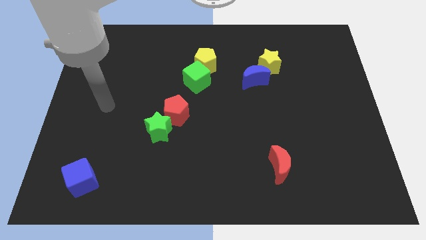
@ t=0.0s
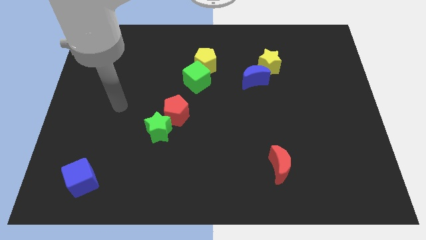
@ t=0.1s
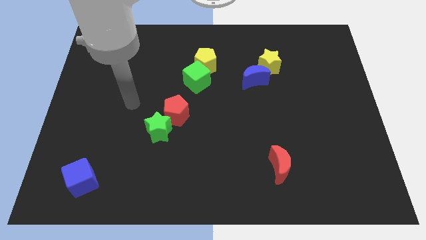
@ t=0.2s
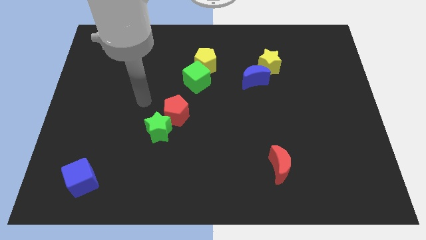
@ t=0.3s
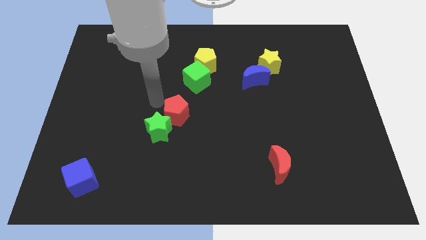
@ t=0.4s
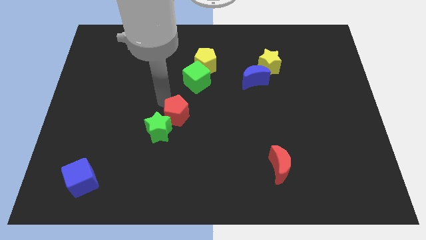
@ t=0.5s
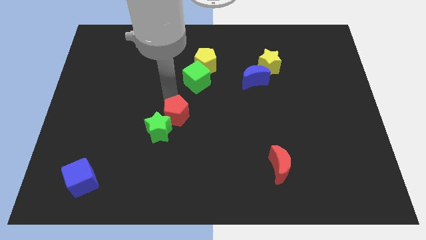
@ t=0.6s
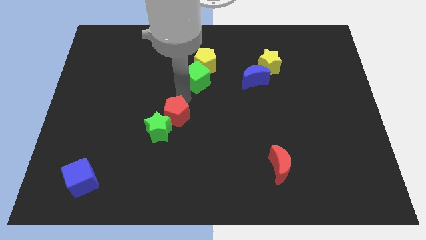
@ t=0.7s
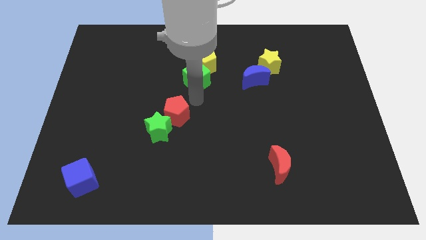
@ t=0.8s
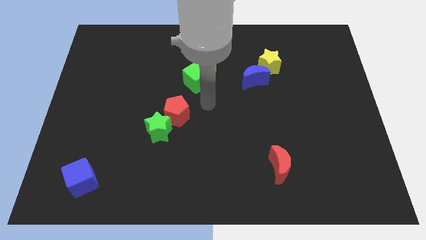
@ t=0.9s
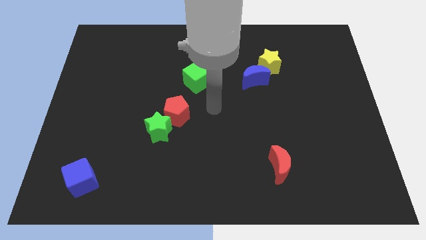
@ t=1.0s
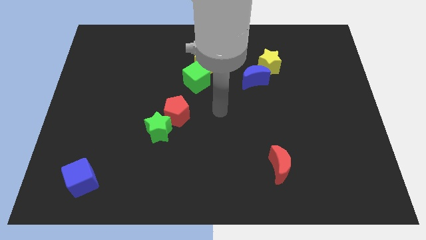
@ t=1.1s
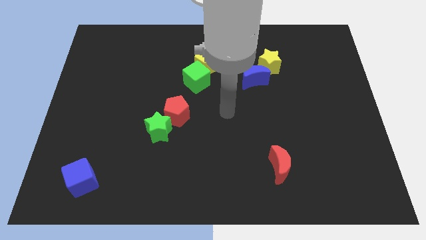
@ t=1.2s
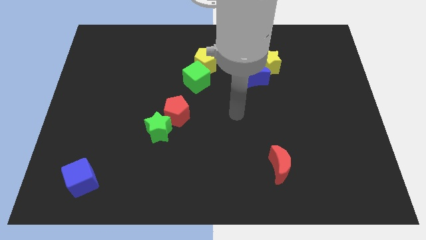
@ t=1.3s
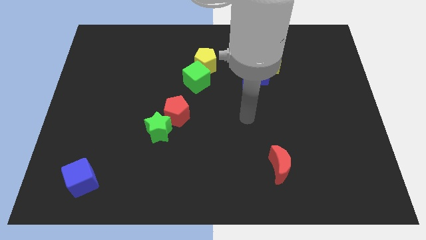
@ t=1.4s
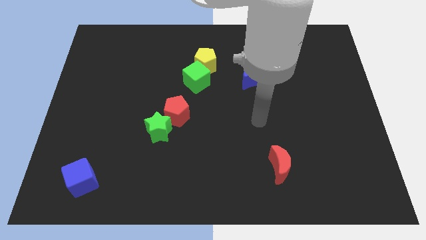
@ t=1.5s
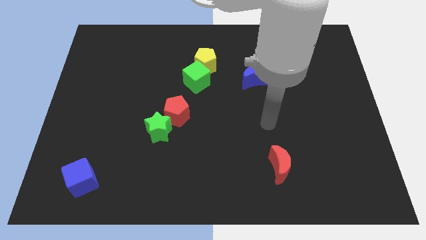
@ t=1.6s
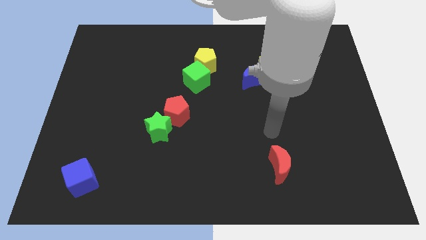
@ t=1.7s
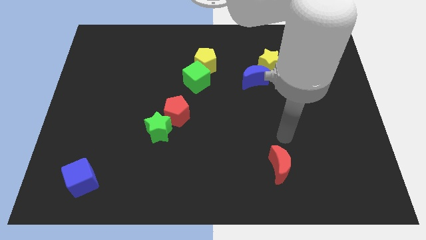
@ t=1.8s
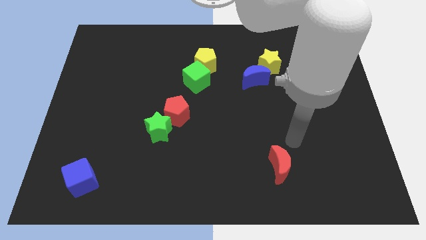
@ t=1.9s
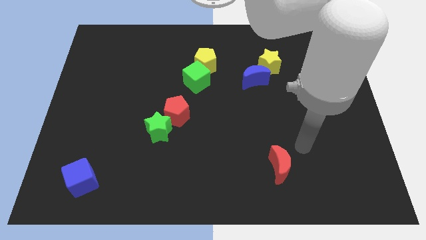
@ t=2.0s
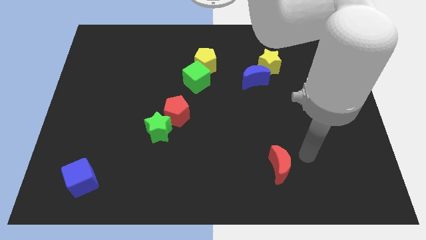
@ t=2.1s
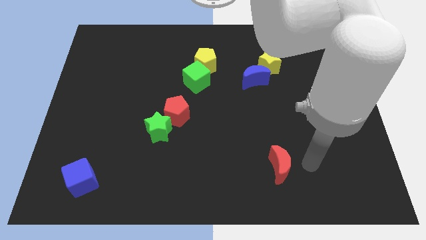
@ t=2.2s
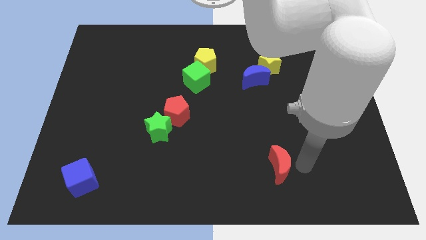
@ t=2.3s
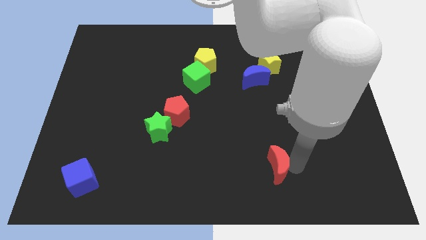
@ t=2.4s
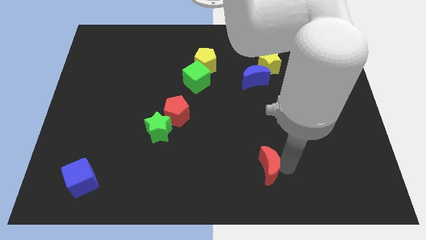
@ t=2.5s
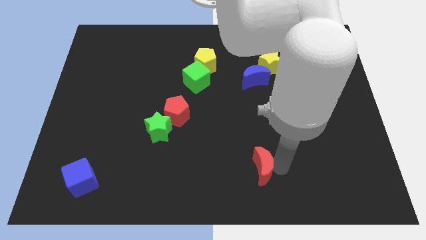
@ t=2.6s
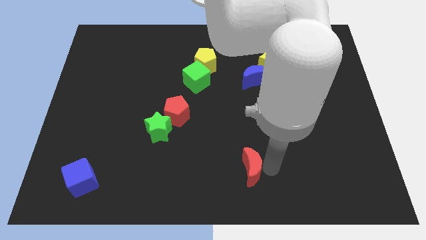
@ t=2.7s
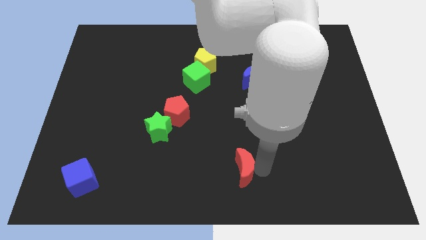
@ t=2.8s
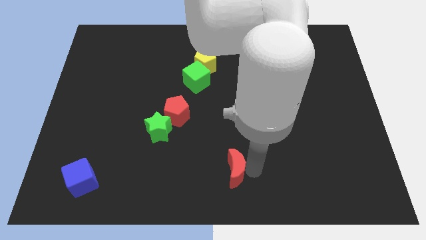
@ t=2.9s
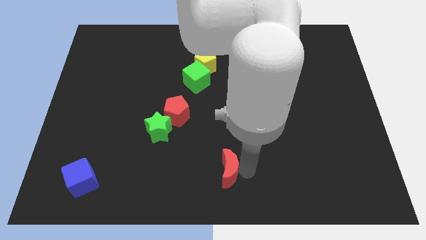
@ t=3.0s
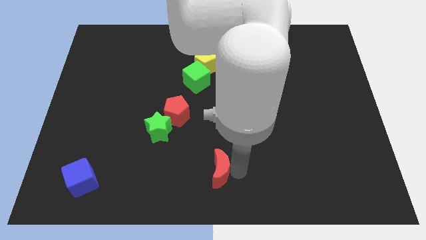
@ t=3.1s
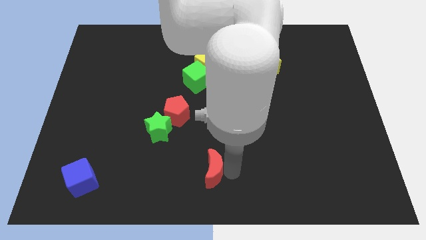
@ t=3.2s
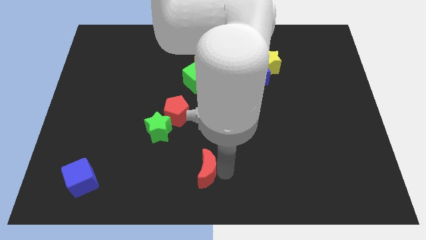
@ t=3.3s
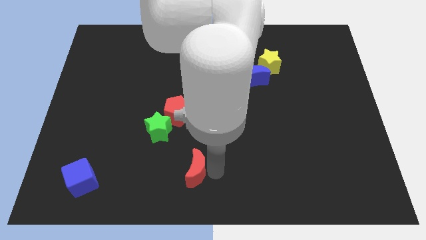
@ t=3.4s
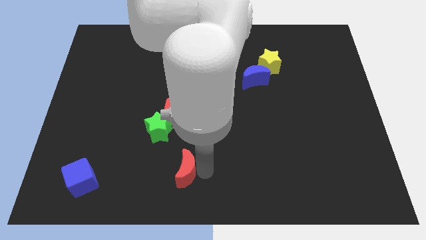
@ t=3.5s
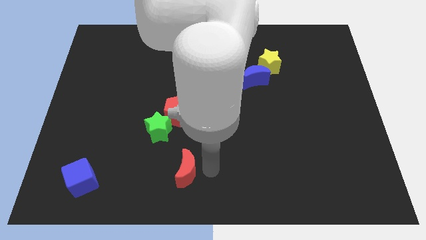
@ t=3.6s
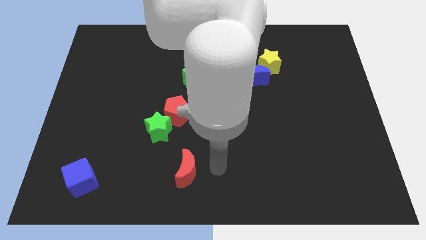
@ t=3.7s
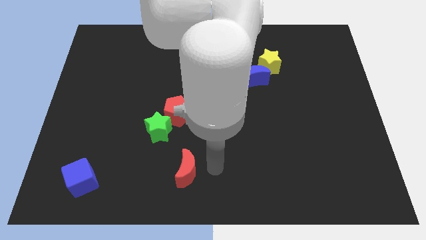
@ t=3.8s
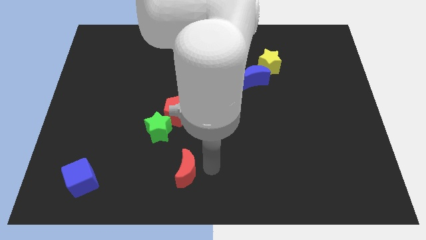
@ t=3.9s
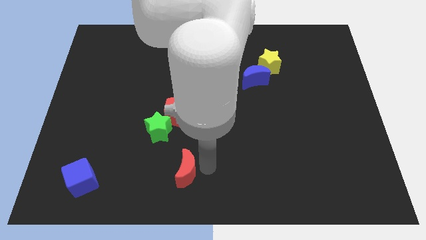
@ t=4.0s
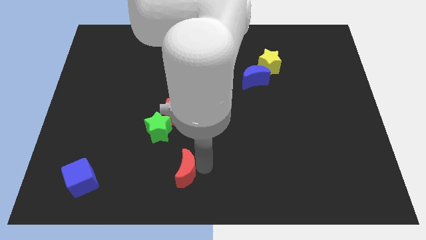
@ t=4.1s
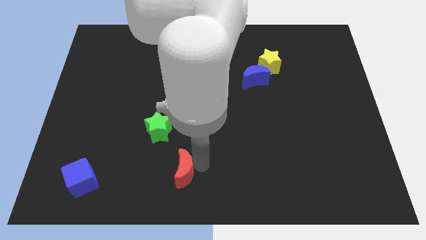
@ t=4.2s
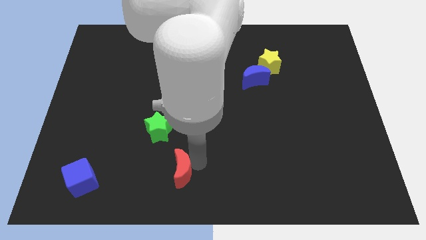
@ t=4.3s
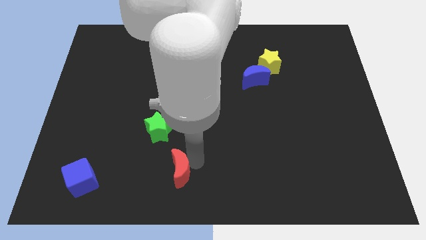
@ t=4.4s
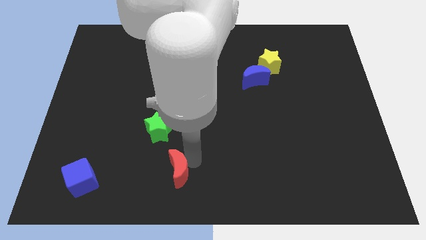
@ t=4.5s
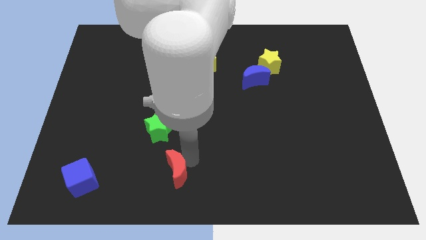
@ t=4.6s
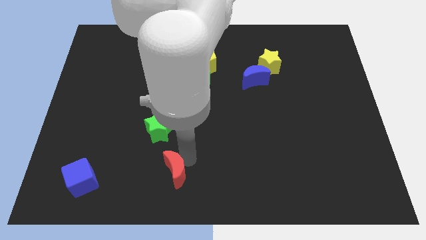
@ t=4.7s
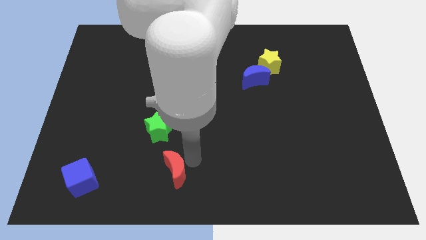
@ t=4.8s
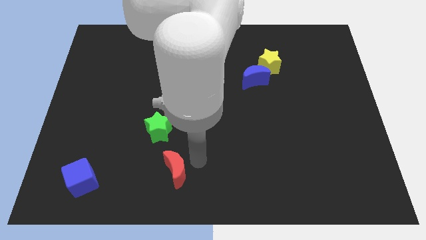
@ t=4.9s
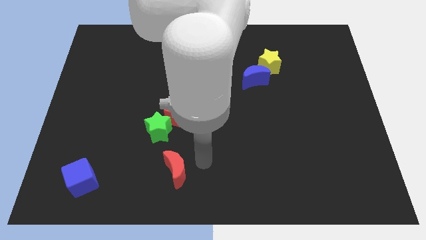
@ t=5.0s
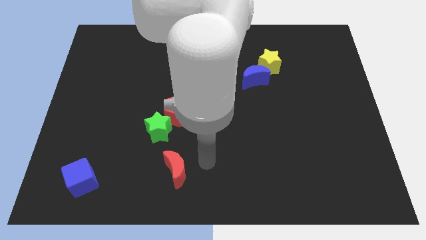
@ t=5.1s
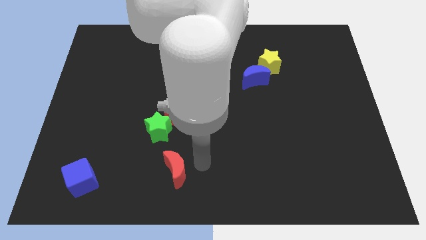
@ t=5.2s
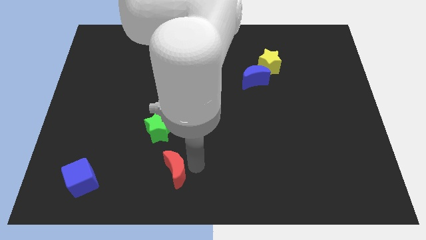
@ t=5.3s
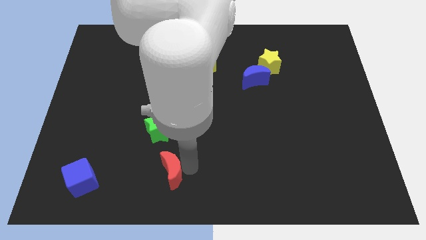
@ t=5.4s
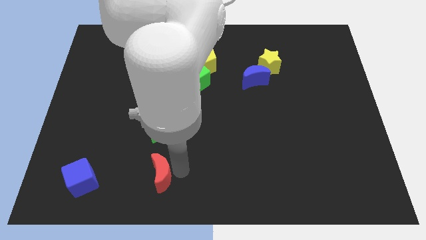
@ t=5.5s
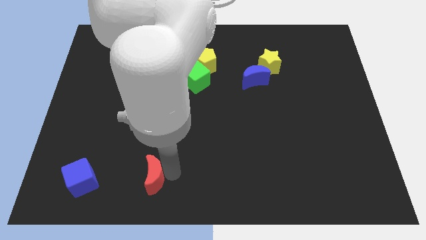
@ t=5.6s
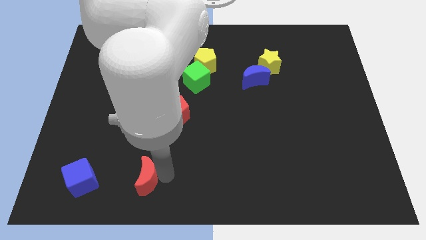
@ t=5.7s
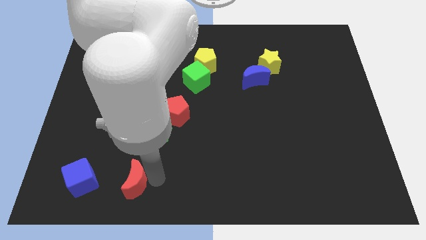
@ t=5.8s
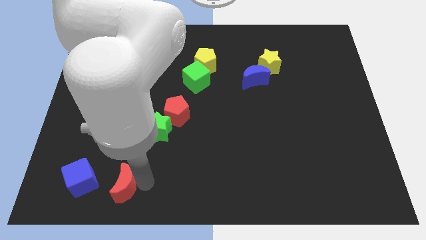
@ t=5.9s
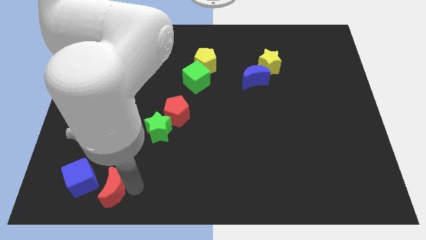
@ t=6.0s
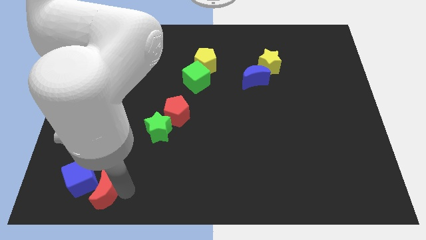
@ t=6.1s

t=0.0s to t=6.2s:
push the red moon close to the blue cube

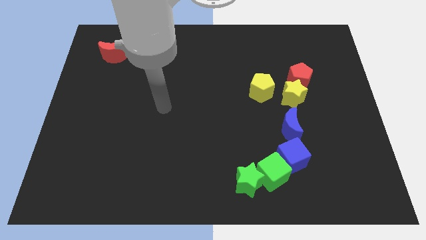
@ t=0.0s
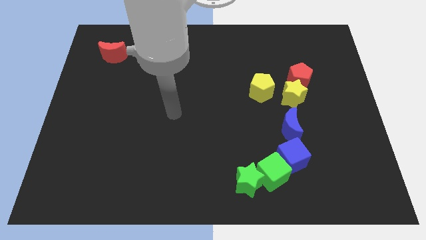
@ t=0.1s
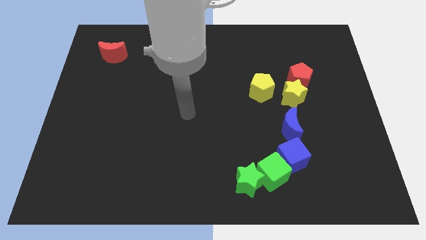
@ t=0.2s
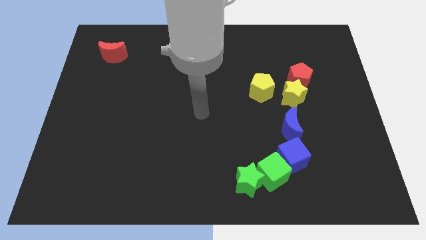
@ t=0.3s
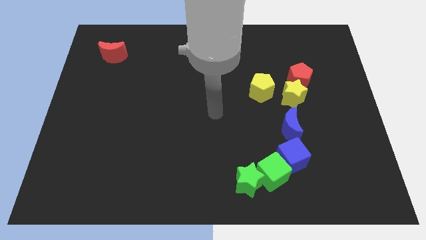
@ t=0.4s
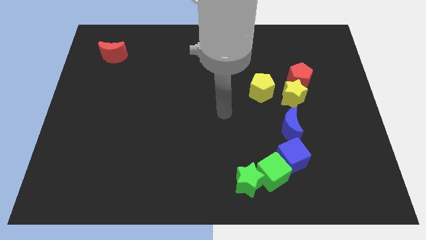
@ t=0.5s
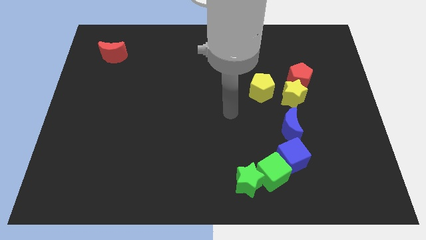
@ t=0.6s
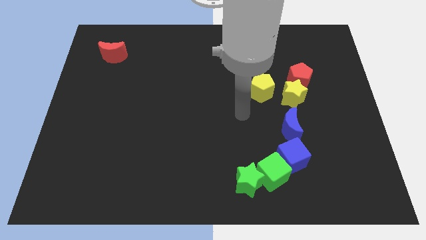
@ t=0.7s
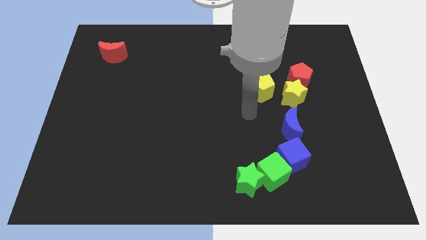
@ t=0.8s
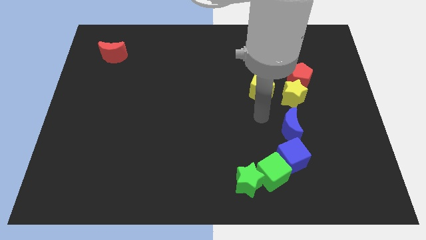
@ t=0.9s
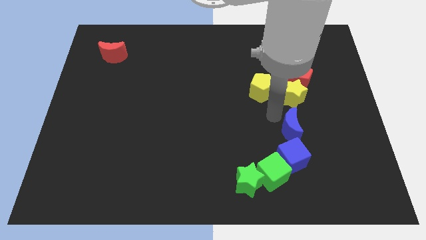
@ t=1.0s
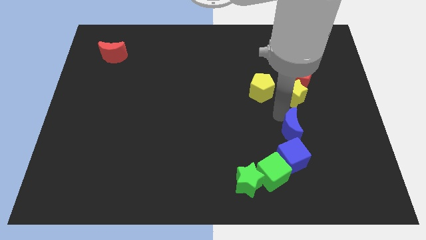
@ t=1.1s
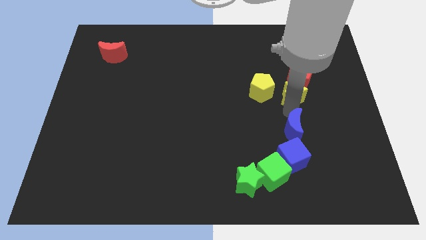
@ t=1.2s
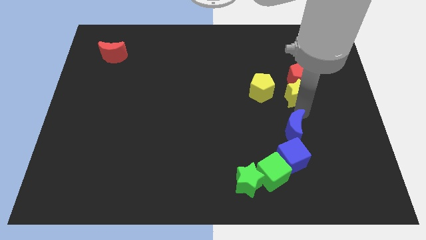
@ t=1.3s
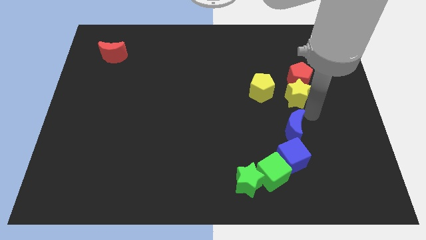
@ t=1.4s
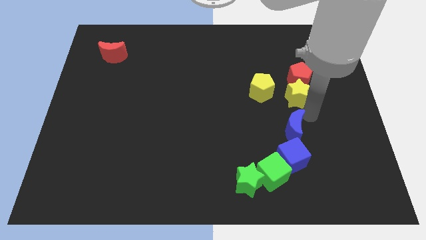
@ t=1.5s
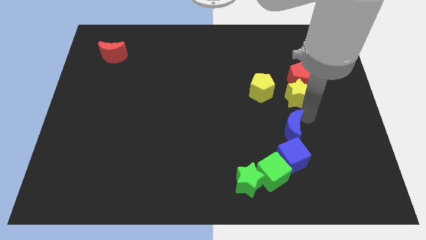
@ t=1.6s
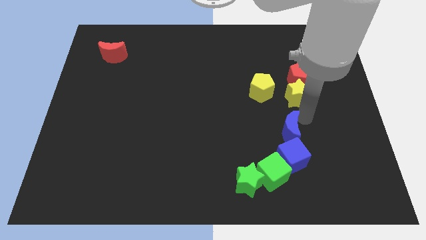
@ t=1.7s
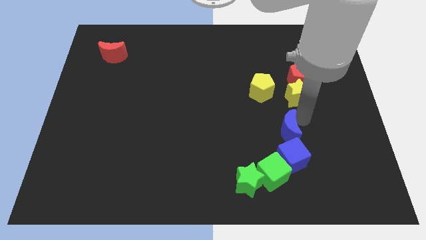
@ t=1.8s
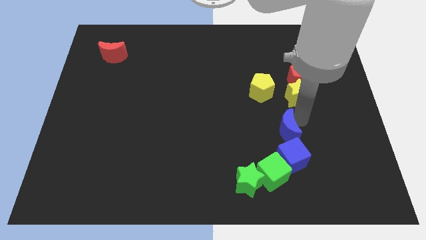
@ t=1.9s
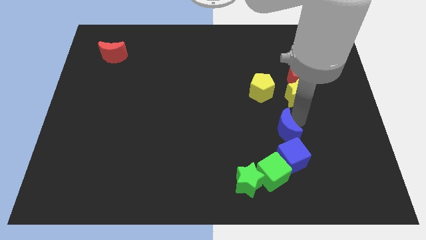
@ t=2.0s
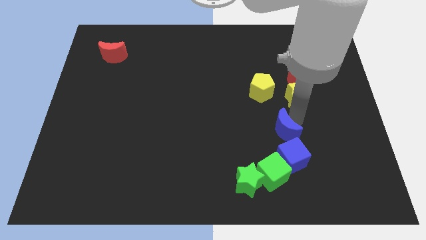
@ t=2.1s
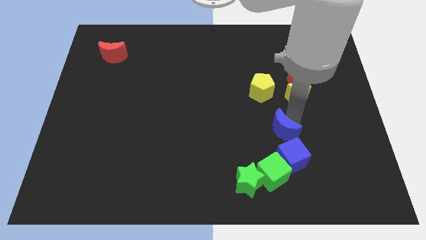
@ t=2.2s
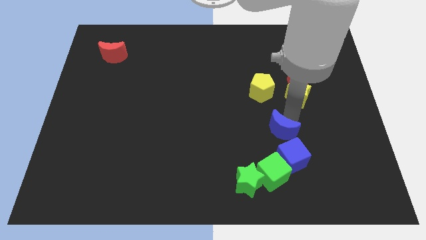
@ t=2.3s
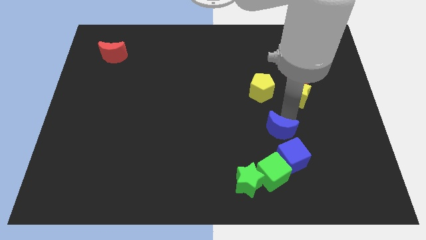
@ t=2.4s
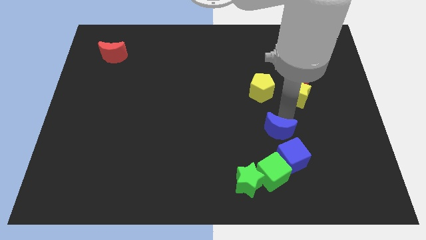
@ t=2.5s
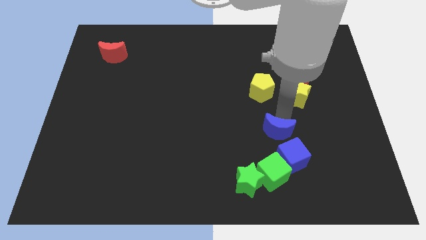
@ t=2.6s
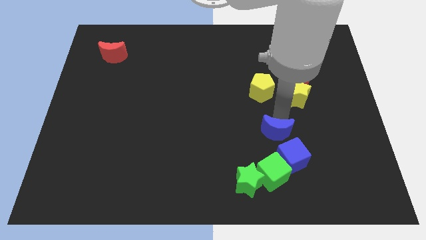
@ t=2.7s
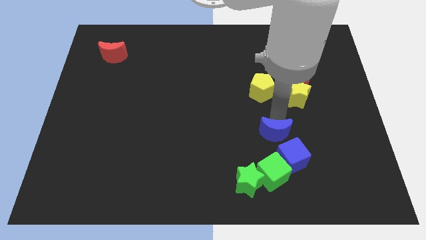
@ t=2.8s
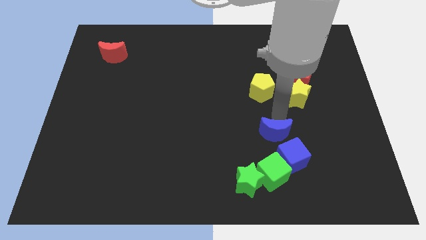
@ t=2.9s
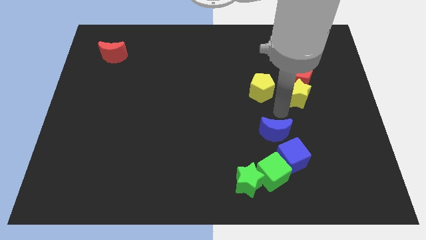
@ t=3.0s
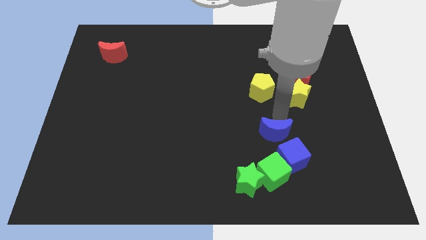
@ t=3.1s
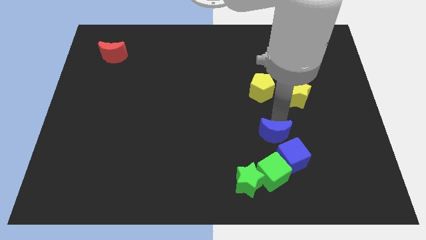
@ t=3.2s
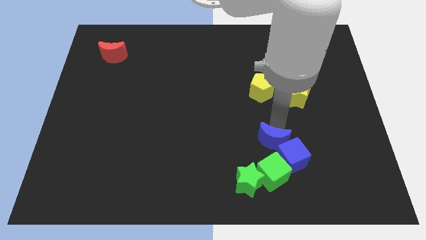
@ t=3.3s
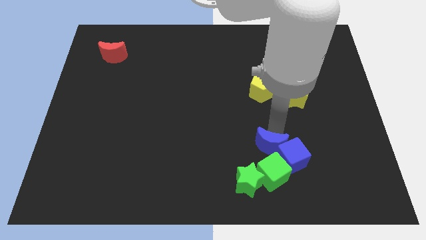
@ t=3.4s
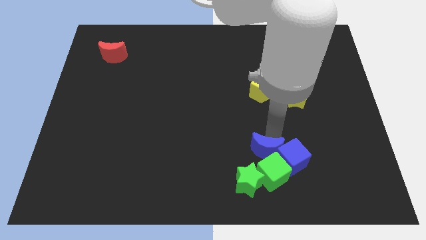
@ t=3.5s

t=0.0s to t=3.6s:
put the blue moon close to the green cube
